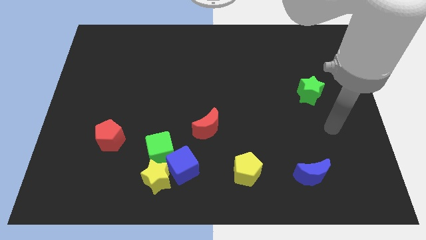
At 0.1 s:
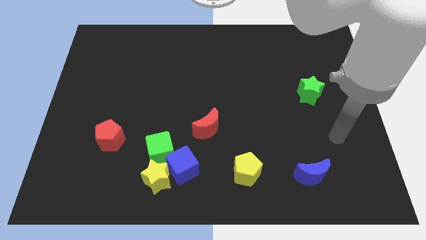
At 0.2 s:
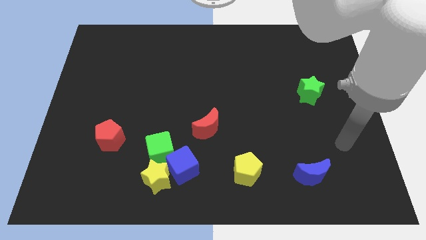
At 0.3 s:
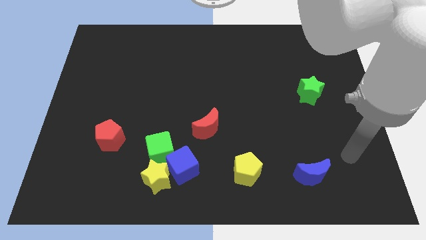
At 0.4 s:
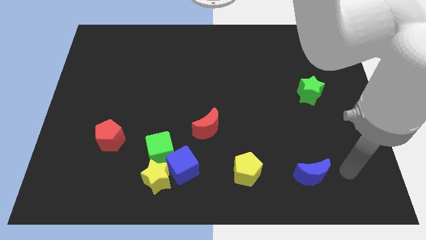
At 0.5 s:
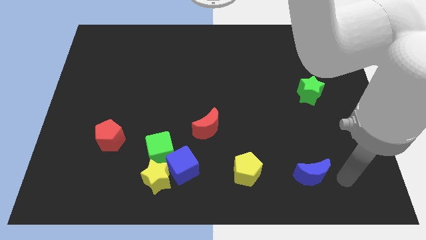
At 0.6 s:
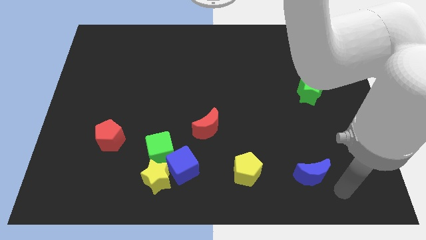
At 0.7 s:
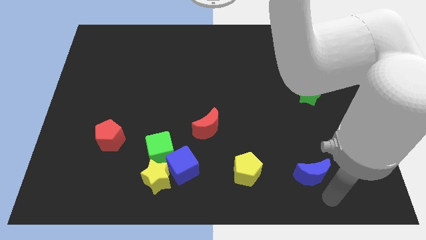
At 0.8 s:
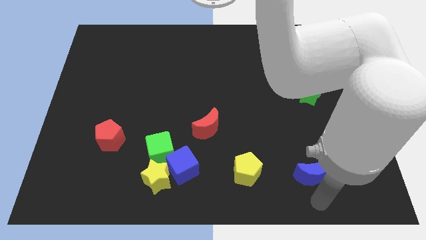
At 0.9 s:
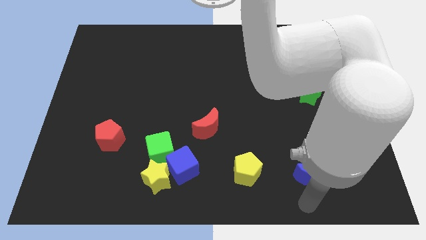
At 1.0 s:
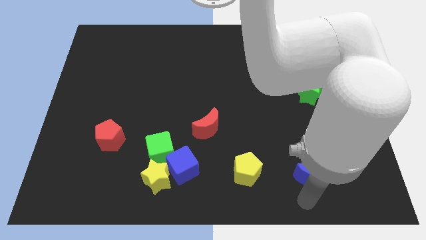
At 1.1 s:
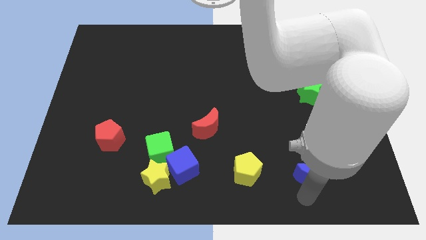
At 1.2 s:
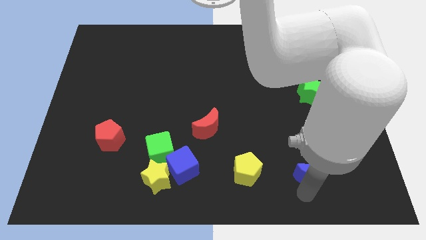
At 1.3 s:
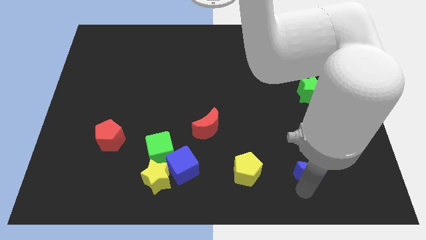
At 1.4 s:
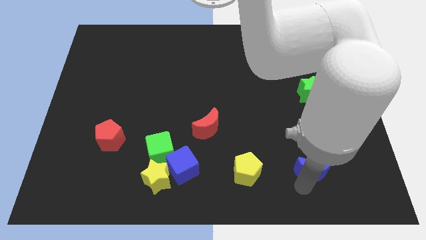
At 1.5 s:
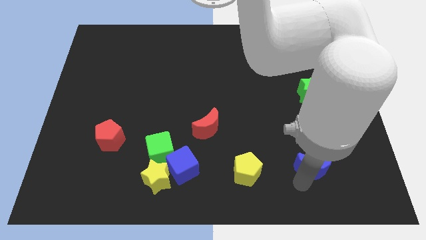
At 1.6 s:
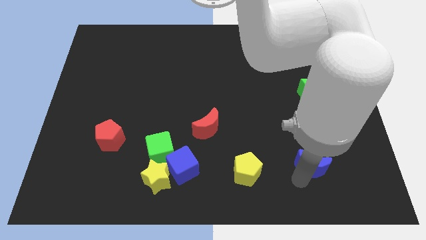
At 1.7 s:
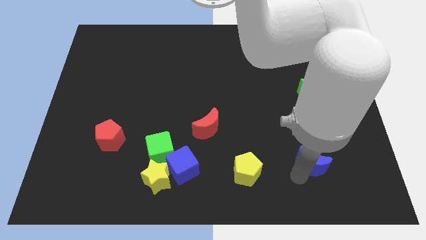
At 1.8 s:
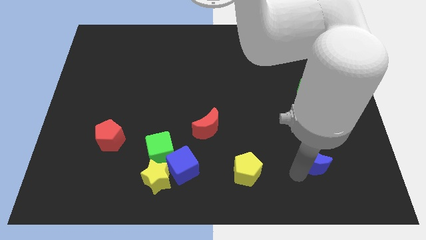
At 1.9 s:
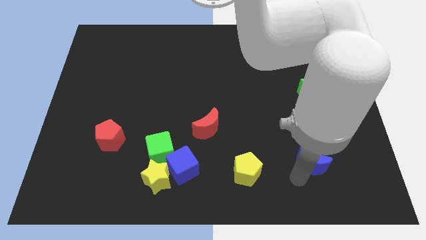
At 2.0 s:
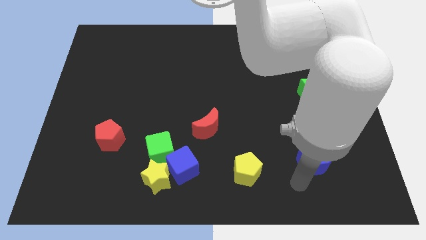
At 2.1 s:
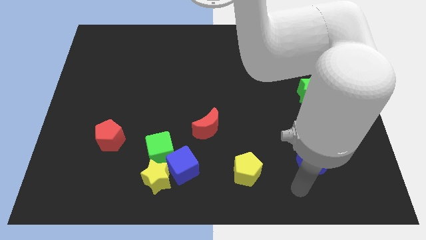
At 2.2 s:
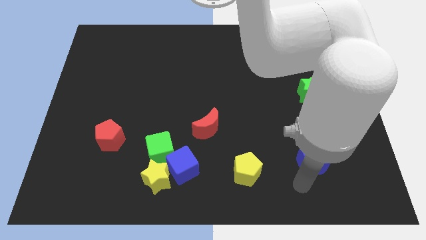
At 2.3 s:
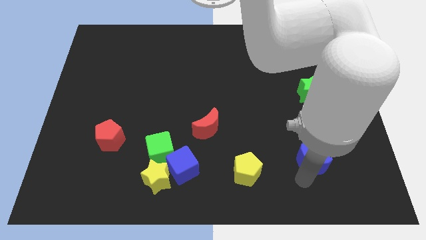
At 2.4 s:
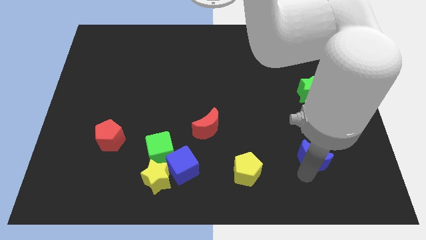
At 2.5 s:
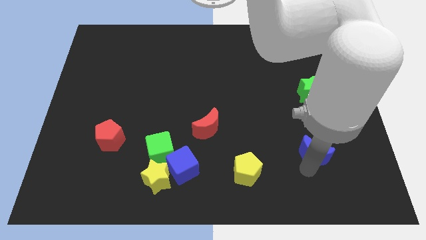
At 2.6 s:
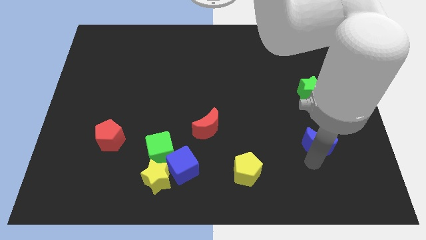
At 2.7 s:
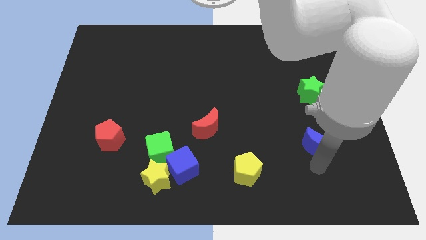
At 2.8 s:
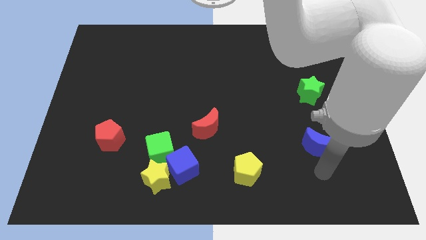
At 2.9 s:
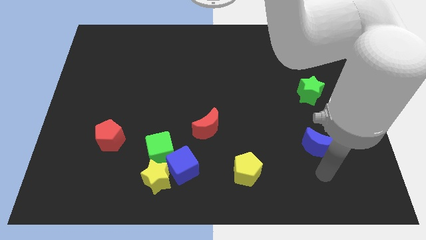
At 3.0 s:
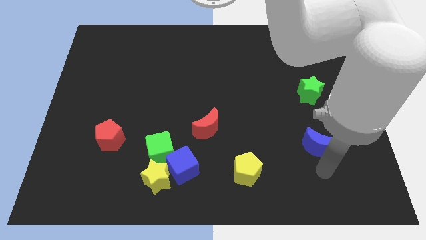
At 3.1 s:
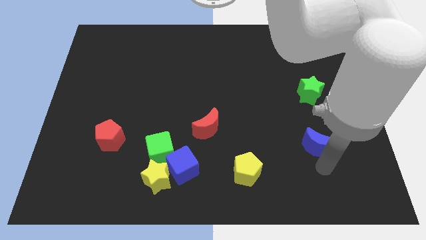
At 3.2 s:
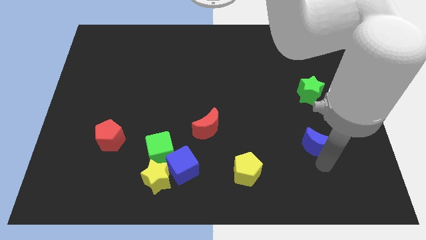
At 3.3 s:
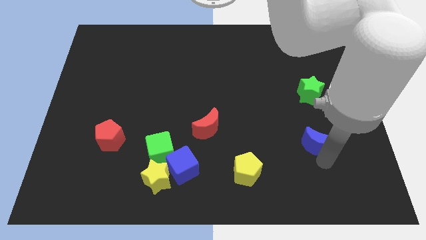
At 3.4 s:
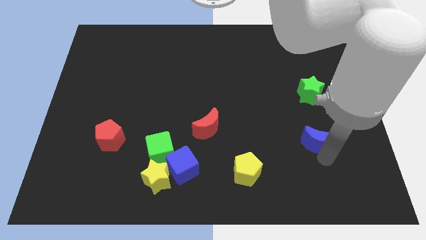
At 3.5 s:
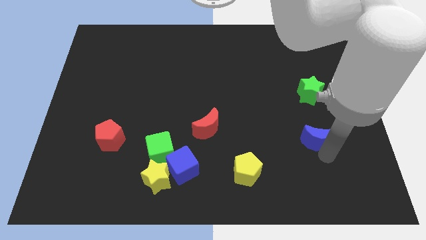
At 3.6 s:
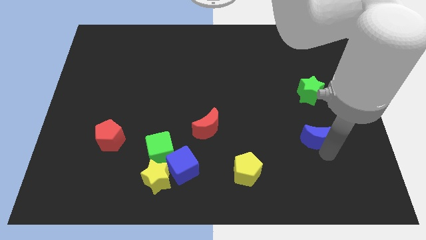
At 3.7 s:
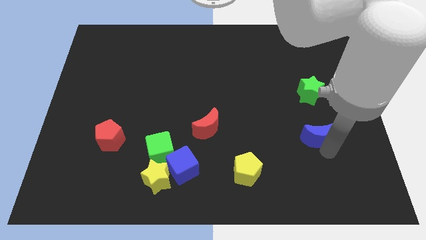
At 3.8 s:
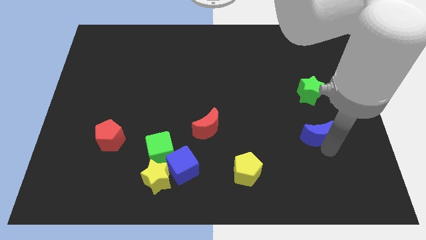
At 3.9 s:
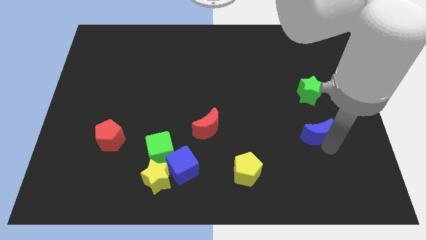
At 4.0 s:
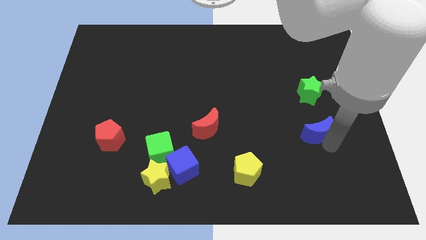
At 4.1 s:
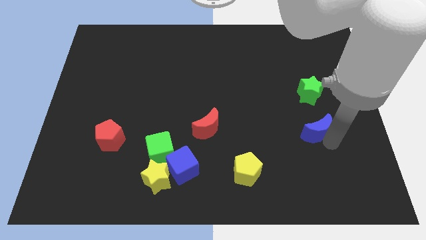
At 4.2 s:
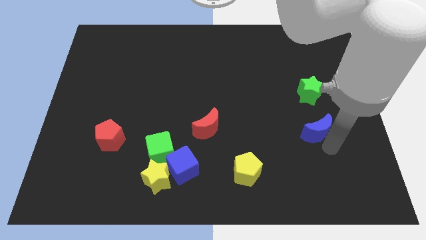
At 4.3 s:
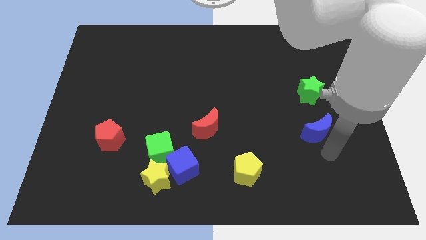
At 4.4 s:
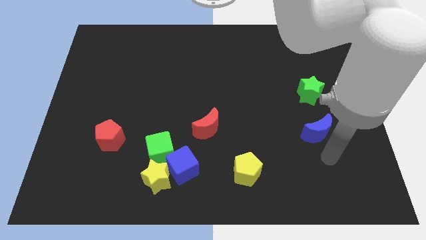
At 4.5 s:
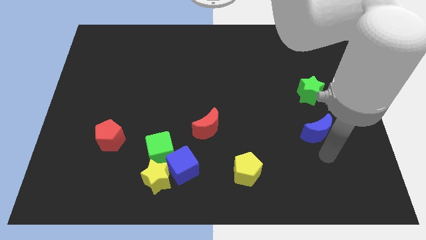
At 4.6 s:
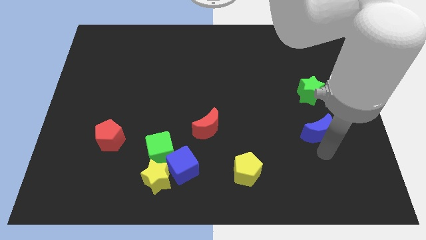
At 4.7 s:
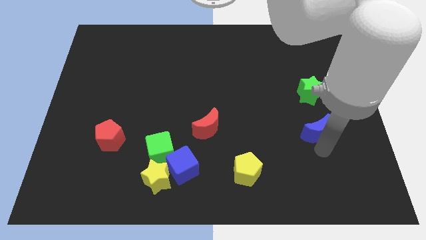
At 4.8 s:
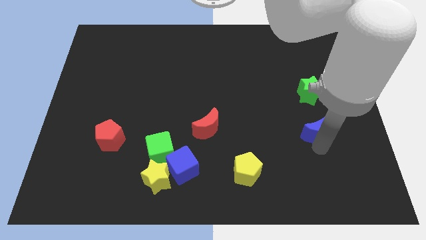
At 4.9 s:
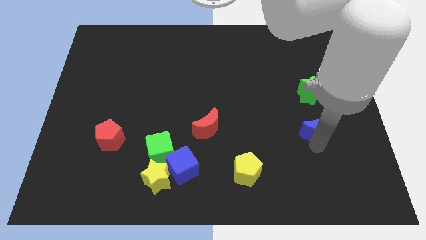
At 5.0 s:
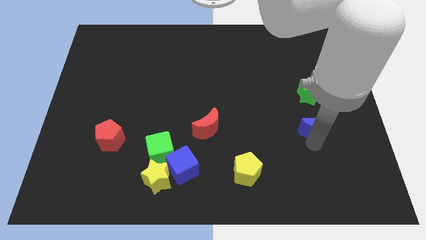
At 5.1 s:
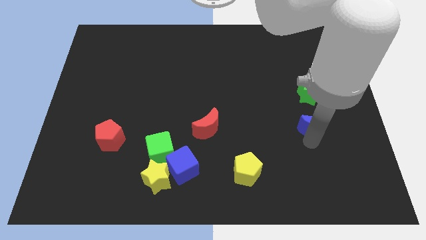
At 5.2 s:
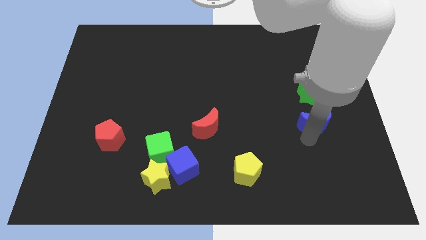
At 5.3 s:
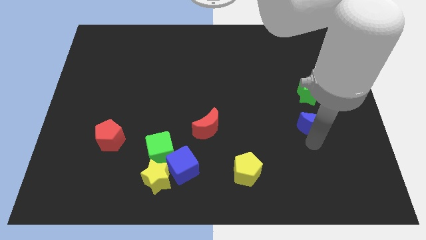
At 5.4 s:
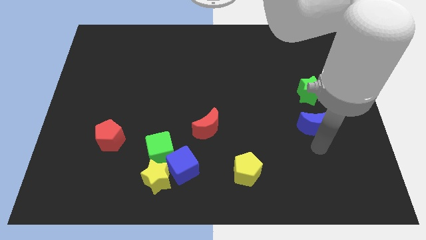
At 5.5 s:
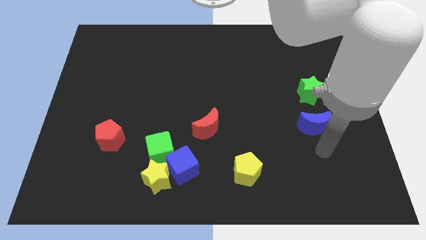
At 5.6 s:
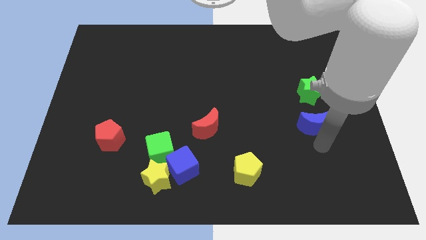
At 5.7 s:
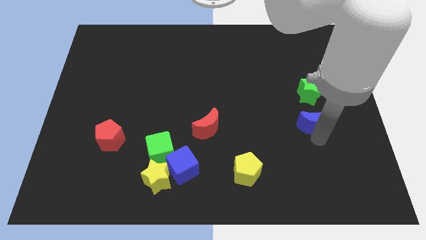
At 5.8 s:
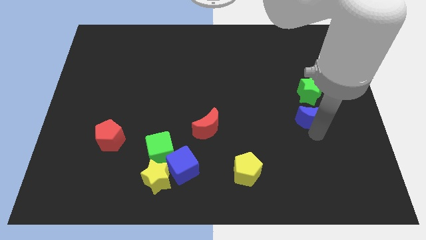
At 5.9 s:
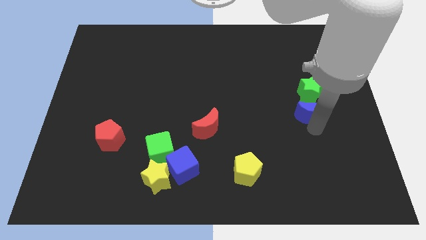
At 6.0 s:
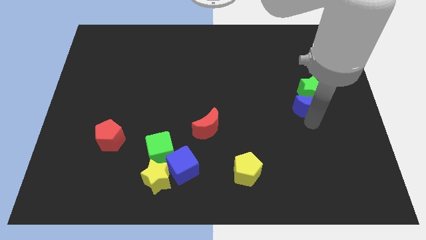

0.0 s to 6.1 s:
move the blue moon to the green star

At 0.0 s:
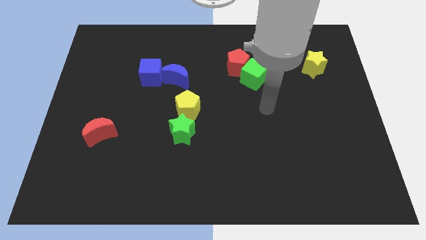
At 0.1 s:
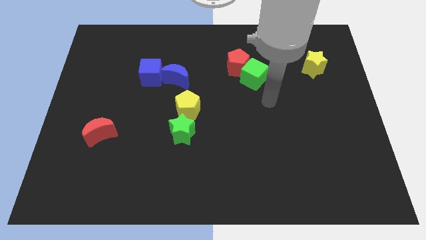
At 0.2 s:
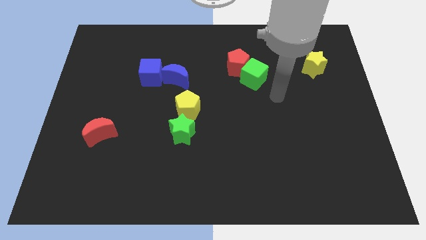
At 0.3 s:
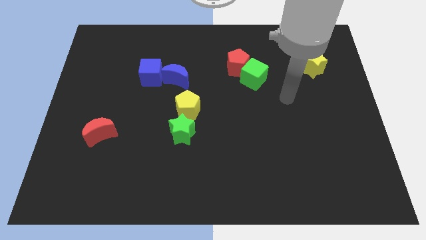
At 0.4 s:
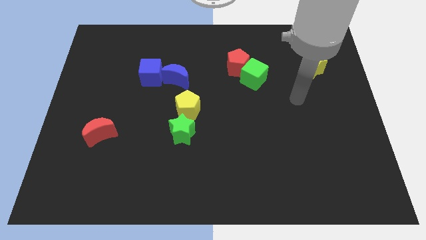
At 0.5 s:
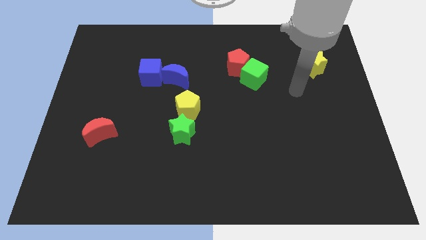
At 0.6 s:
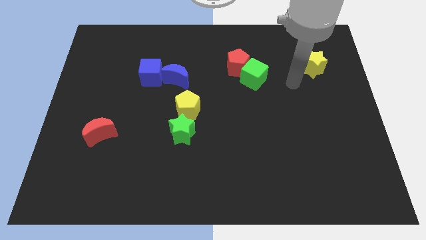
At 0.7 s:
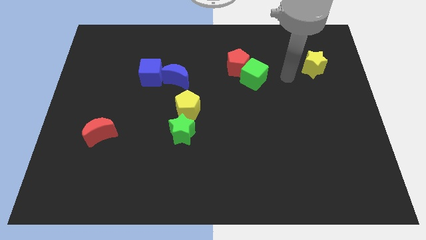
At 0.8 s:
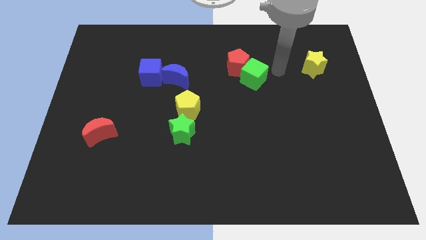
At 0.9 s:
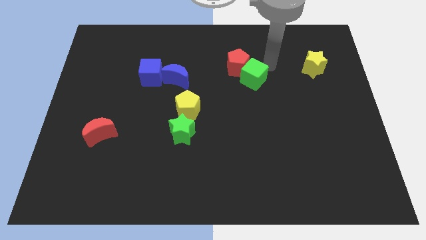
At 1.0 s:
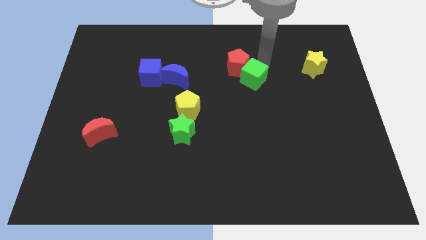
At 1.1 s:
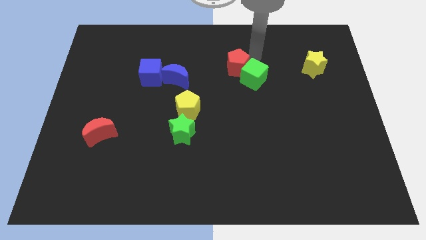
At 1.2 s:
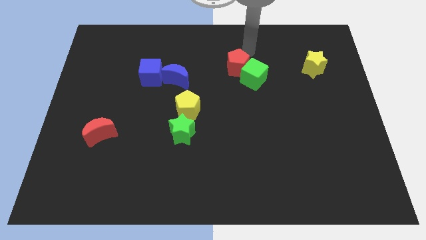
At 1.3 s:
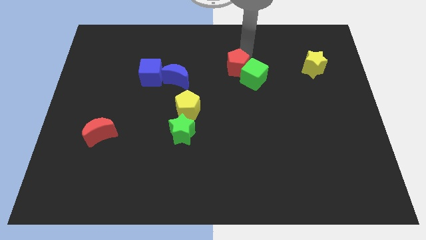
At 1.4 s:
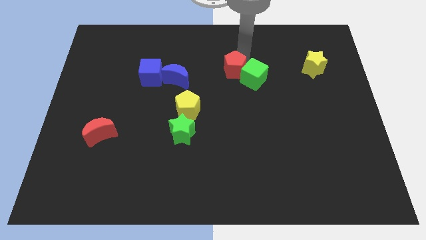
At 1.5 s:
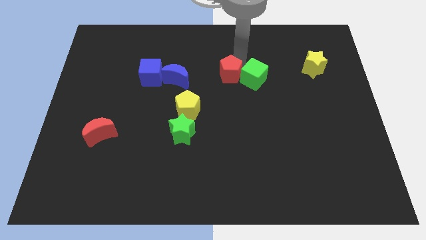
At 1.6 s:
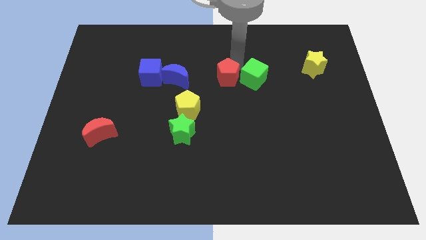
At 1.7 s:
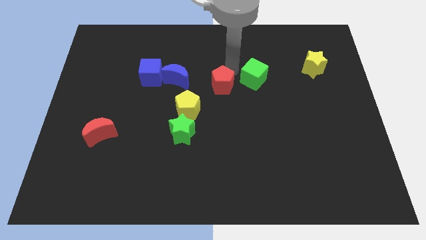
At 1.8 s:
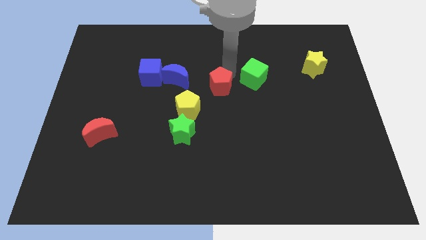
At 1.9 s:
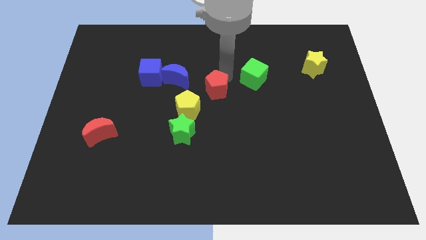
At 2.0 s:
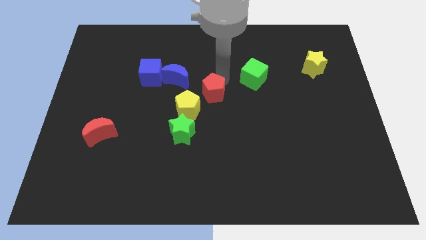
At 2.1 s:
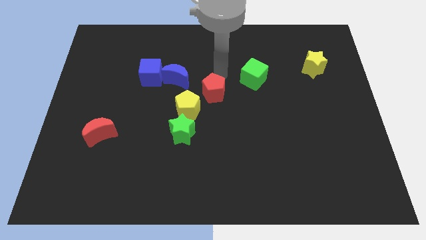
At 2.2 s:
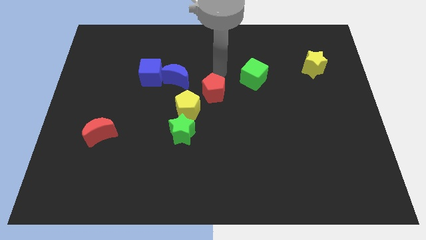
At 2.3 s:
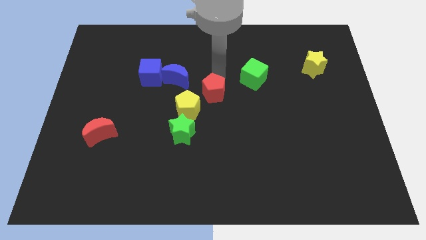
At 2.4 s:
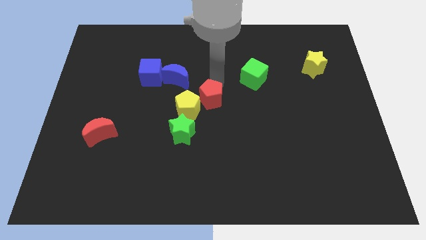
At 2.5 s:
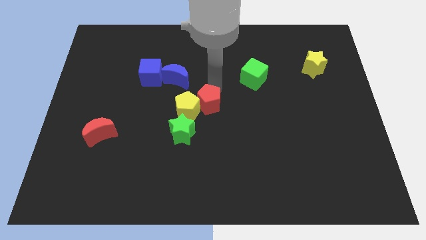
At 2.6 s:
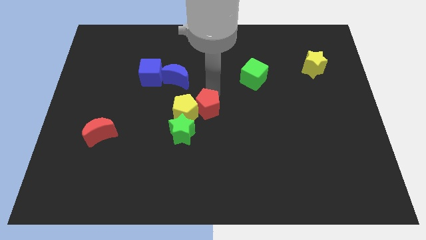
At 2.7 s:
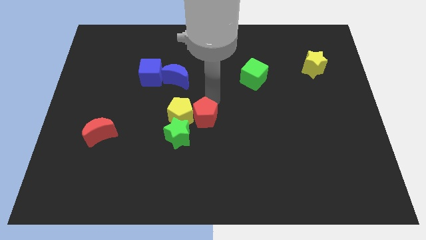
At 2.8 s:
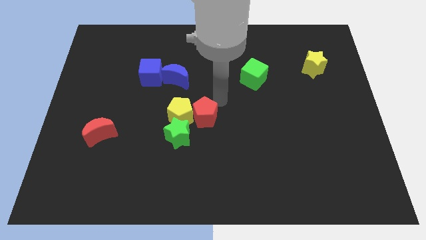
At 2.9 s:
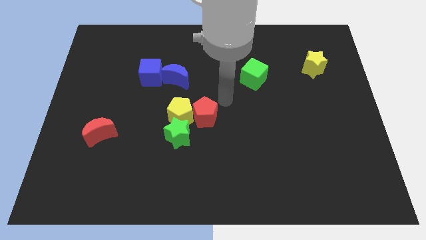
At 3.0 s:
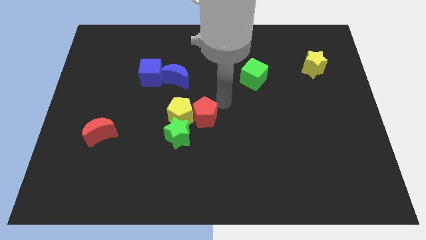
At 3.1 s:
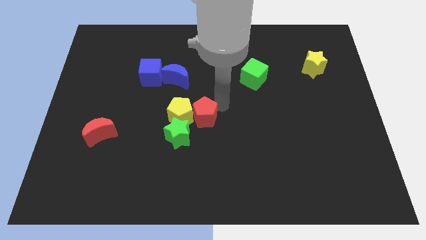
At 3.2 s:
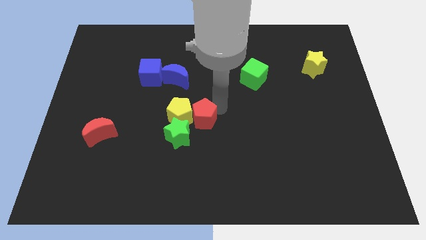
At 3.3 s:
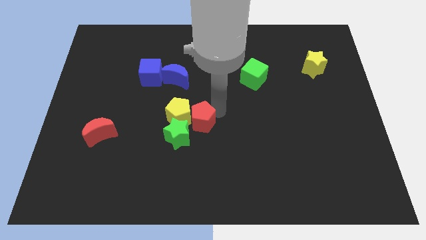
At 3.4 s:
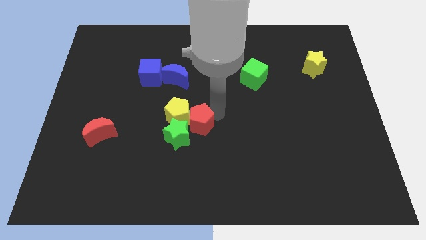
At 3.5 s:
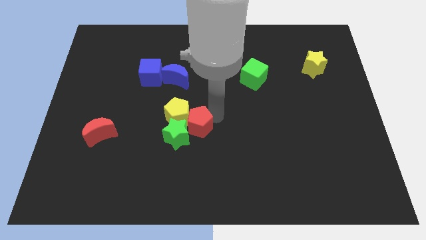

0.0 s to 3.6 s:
move the red pentagon to the green star
